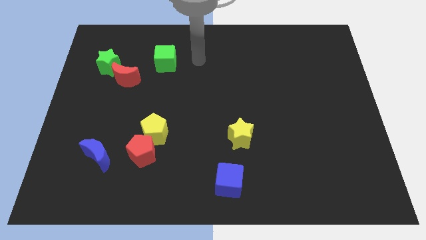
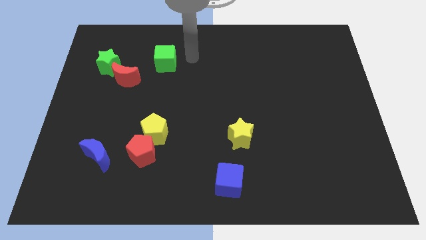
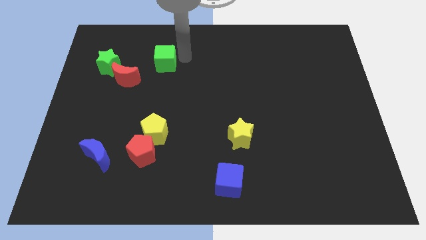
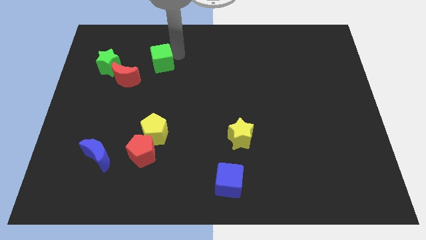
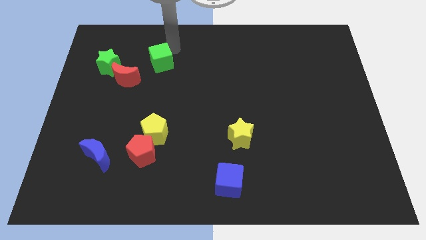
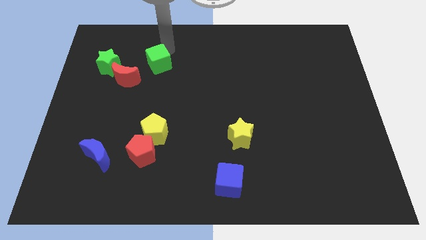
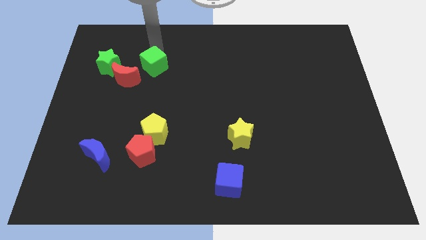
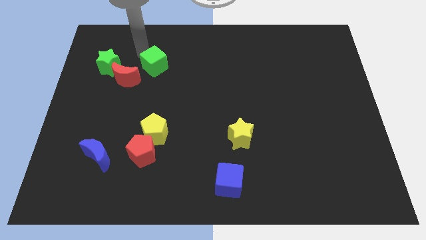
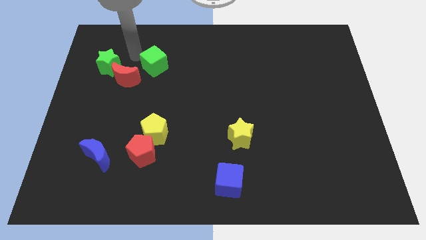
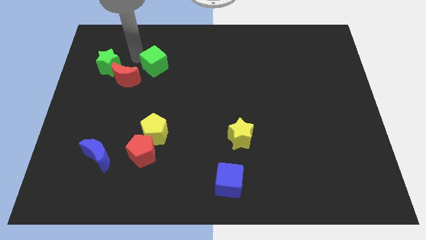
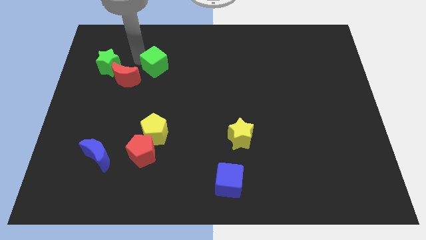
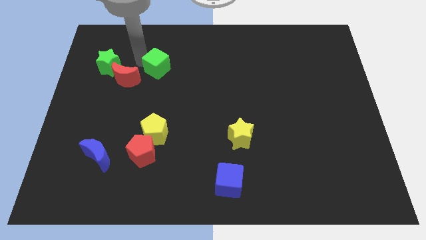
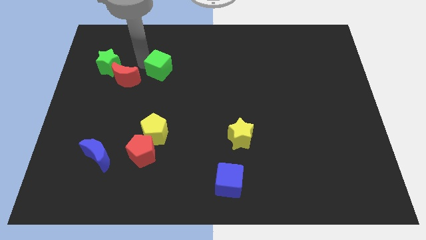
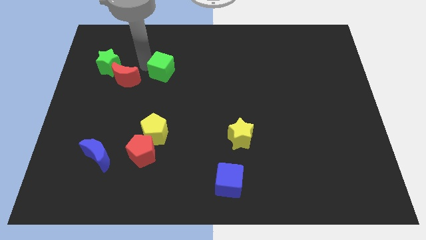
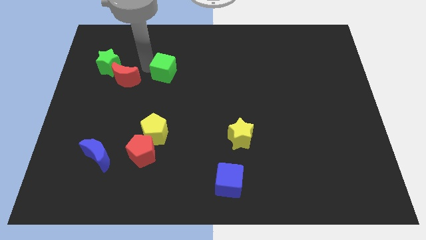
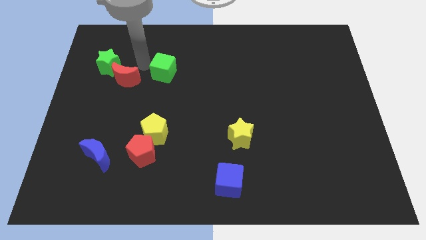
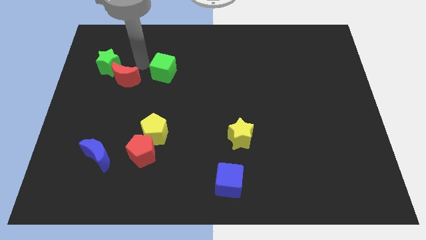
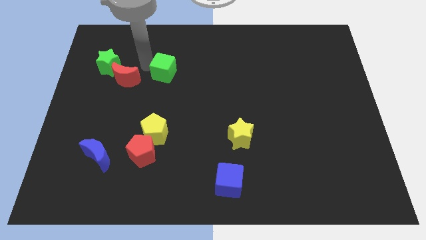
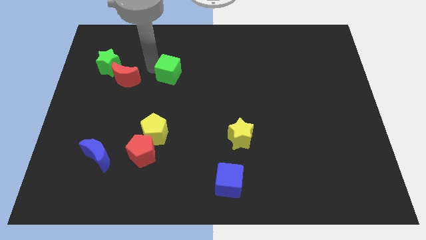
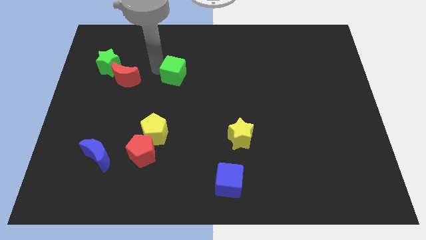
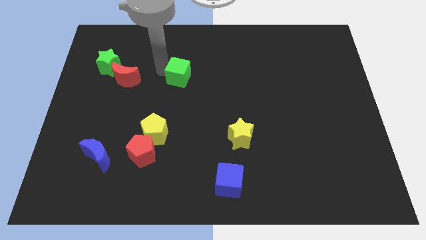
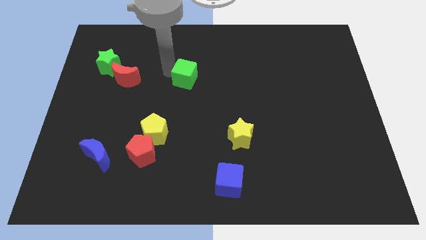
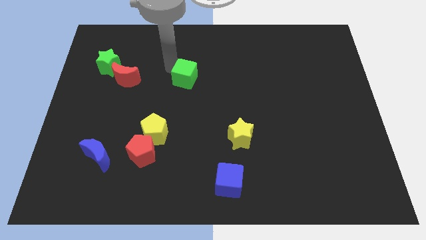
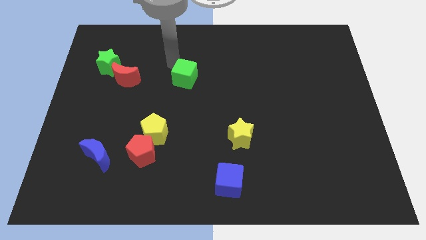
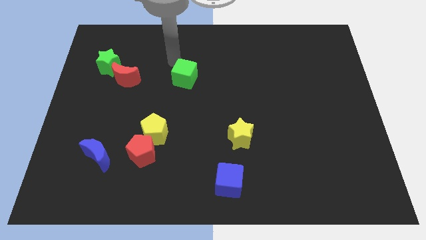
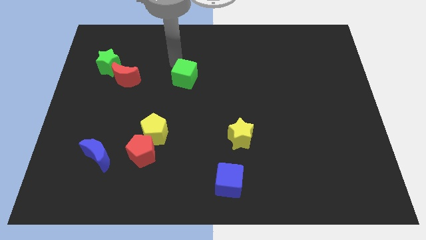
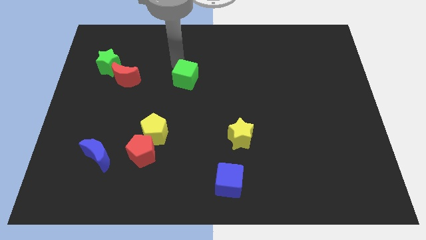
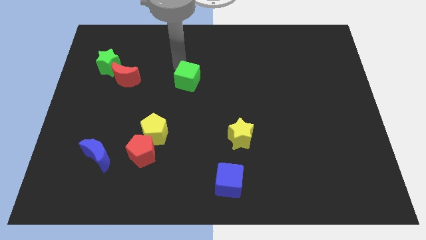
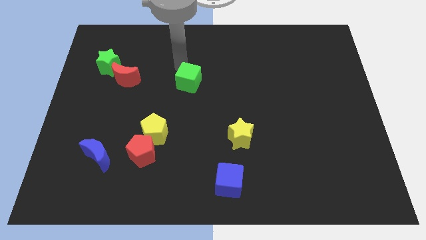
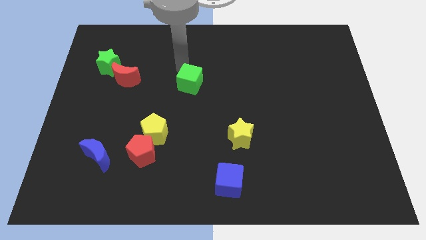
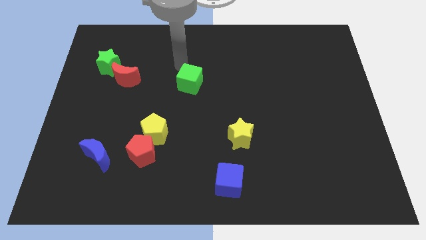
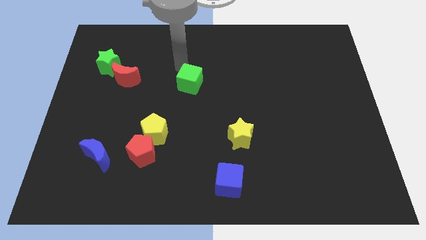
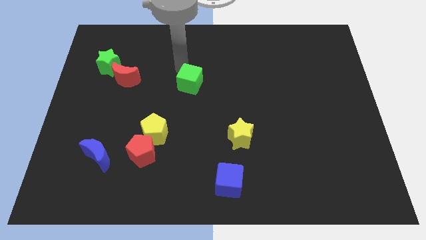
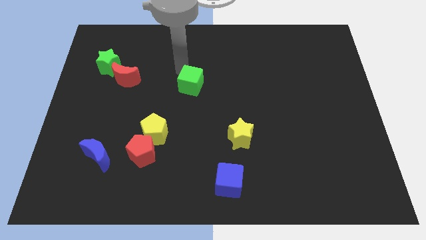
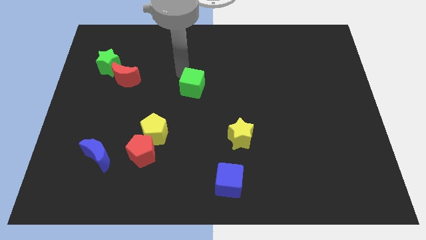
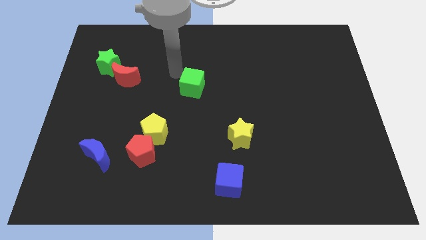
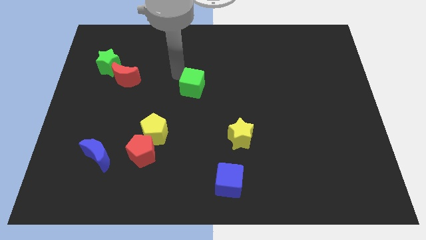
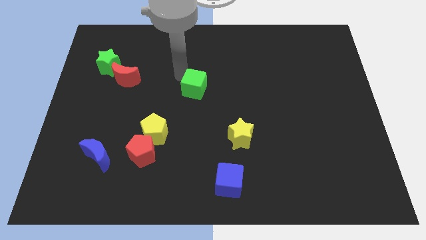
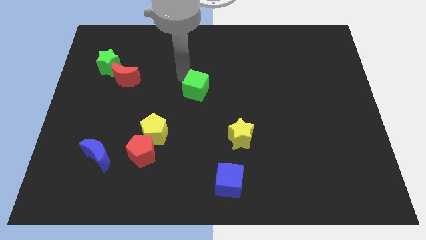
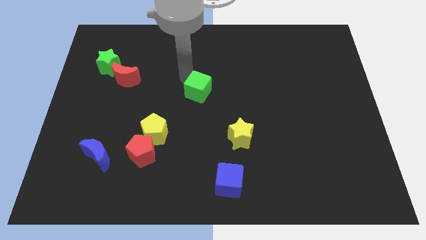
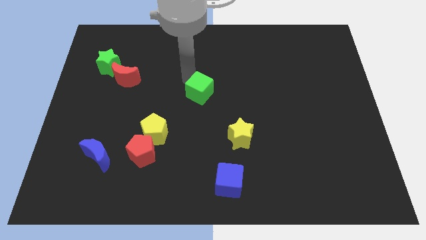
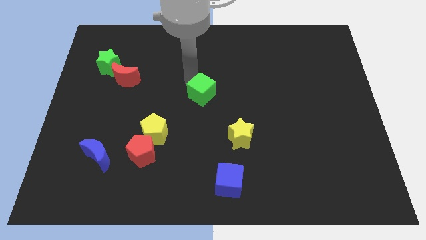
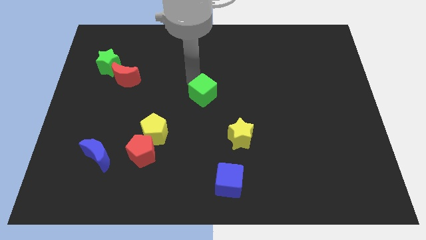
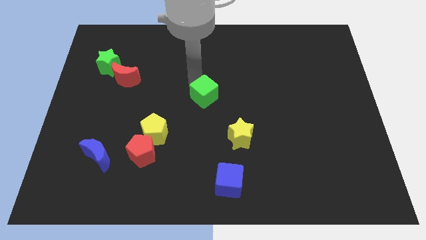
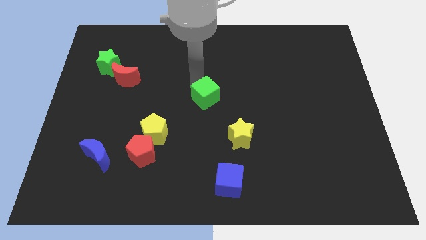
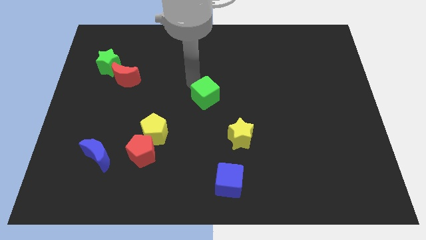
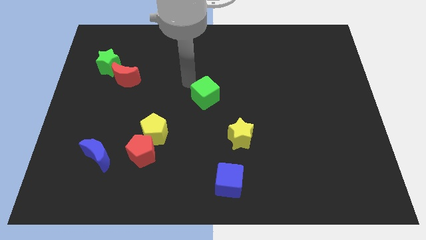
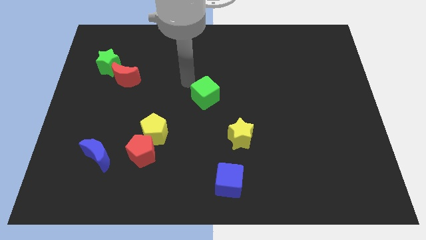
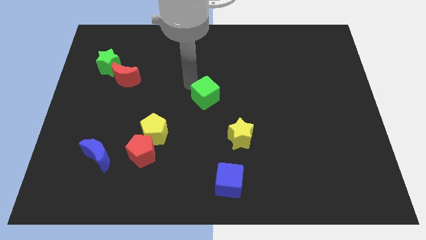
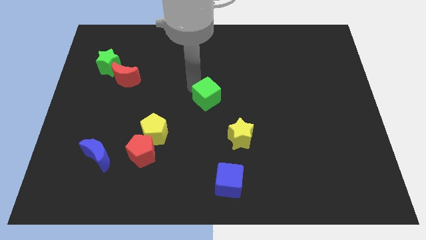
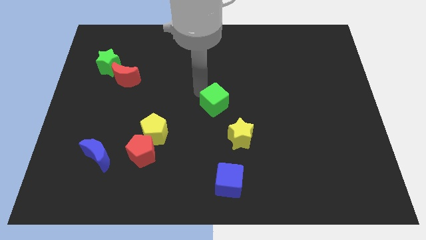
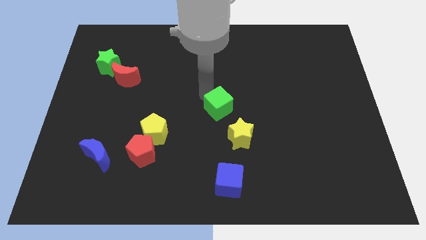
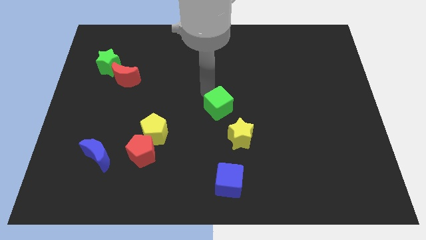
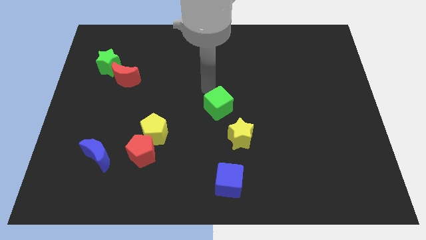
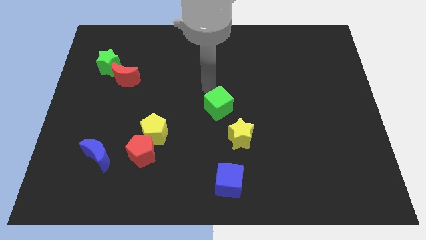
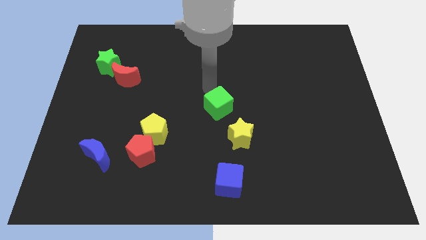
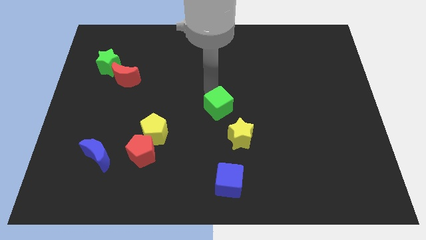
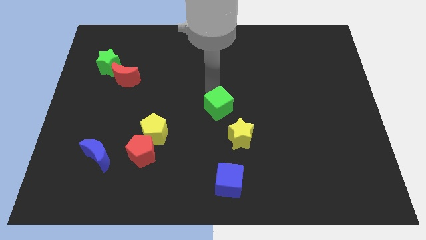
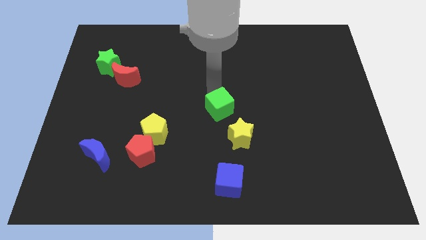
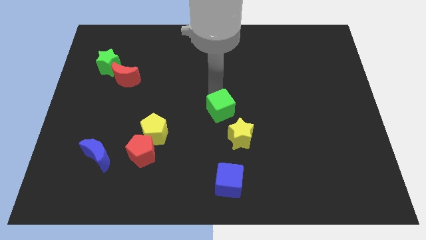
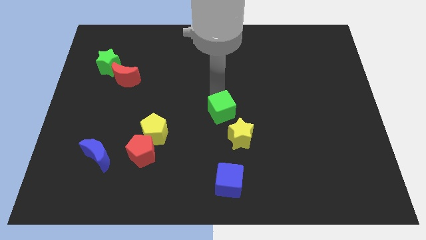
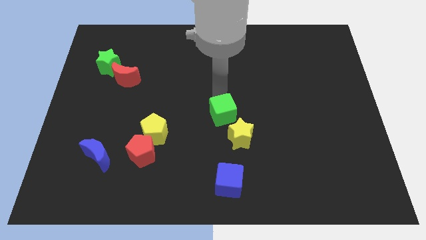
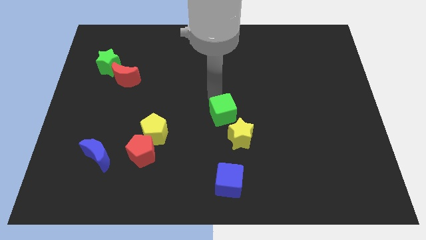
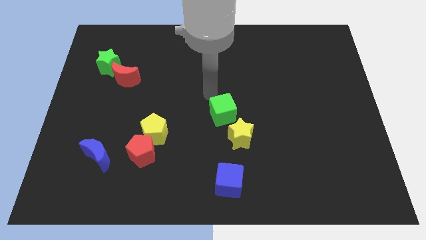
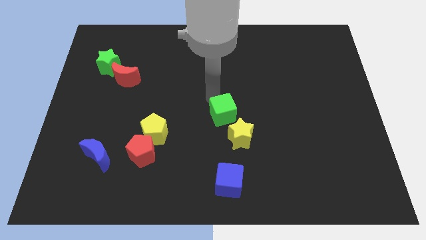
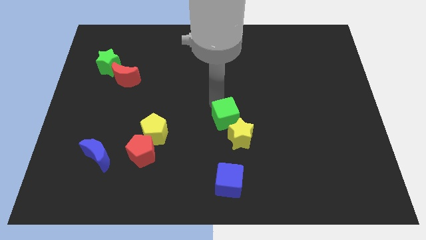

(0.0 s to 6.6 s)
put the green cube towards the yellow star

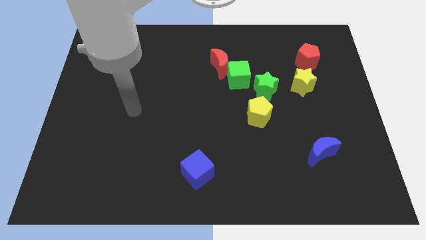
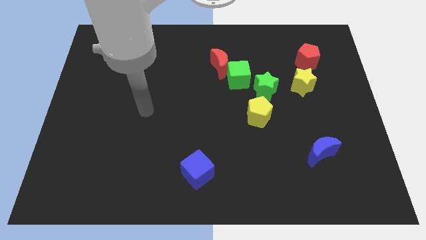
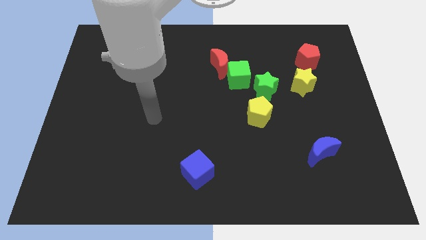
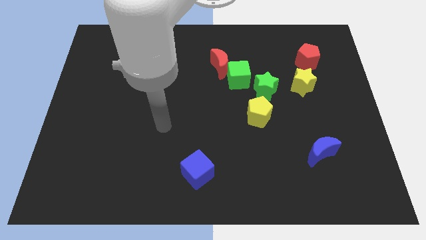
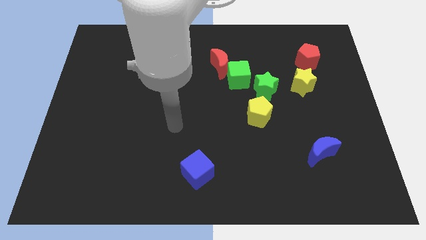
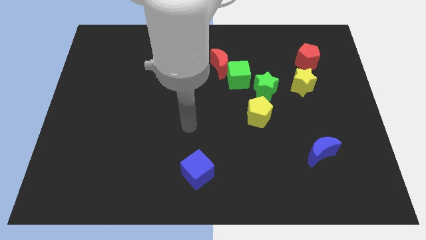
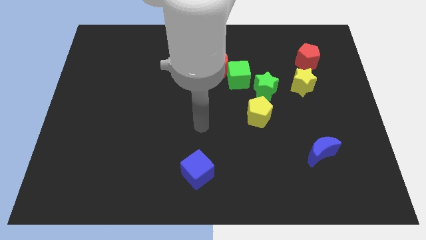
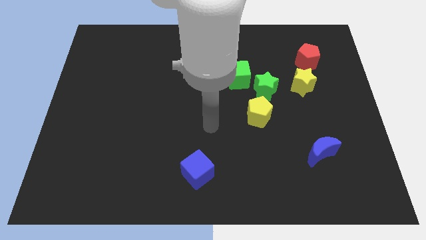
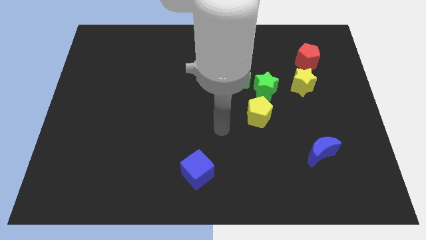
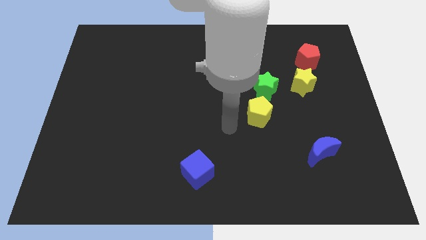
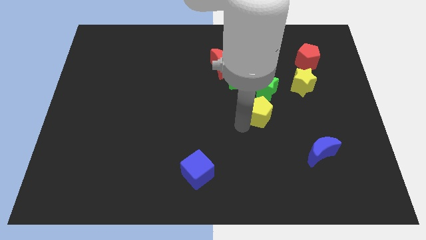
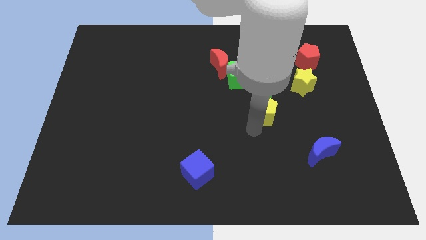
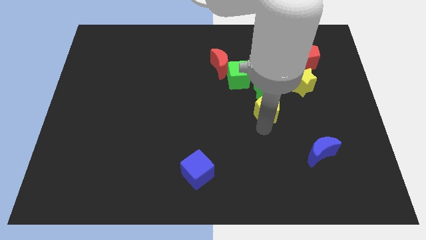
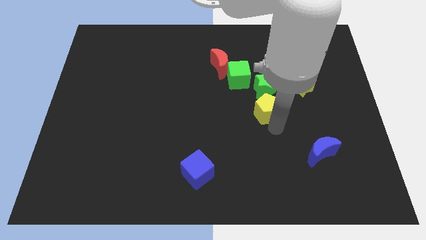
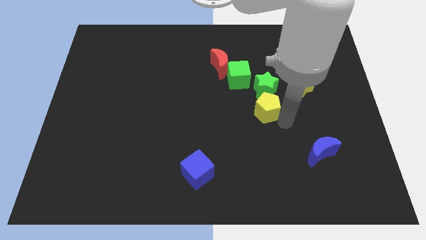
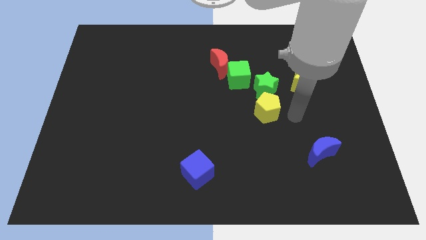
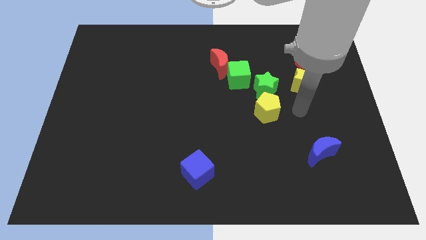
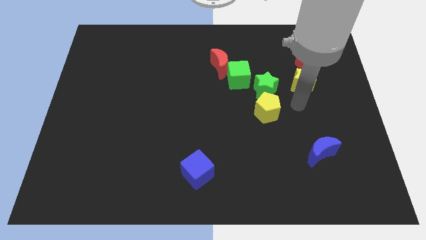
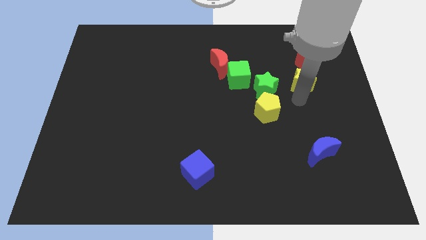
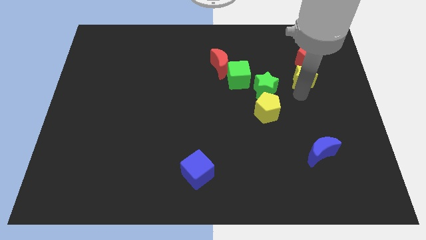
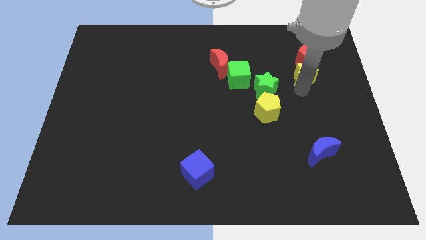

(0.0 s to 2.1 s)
put the yellow star next to the red pentagon
